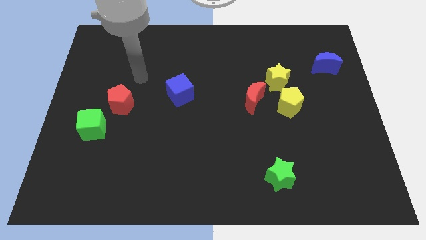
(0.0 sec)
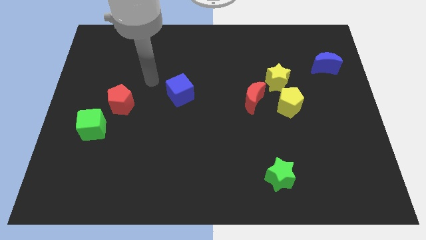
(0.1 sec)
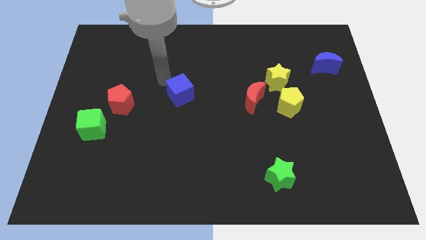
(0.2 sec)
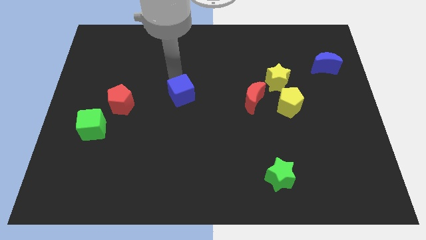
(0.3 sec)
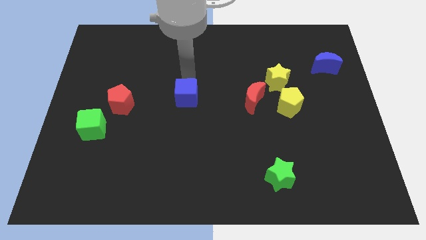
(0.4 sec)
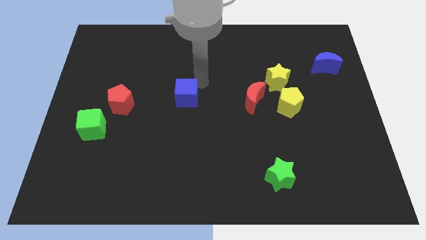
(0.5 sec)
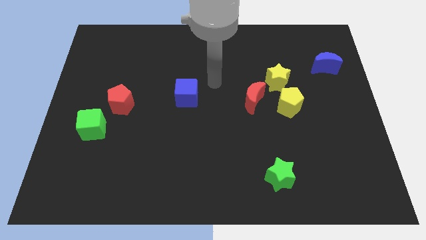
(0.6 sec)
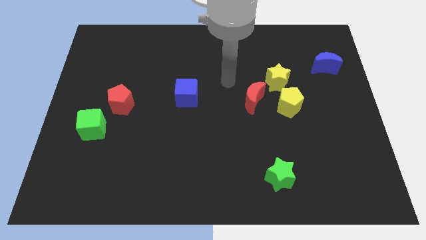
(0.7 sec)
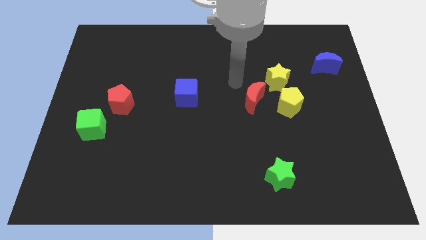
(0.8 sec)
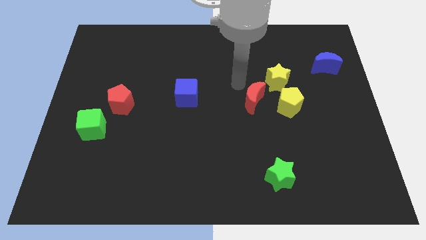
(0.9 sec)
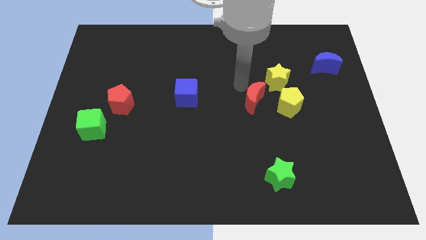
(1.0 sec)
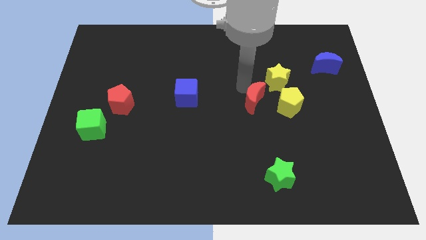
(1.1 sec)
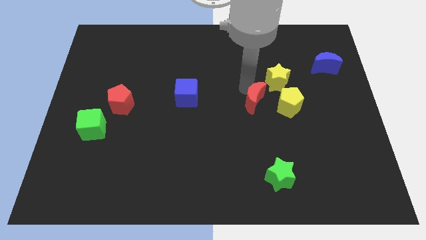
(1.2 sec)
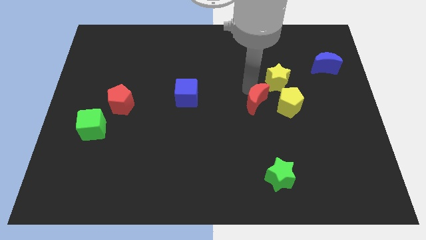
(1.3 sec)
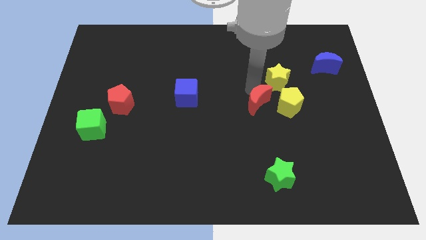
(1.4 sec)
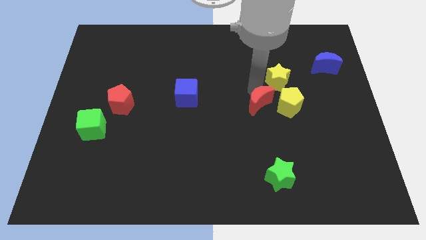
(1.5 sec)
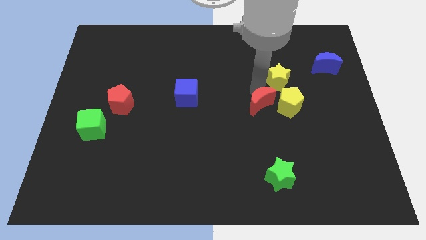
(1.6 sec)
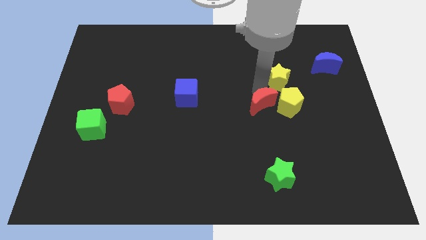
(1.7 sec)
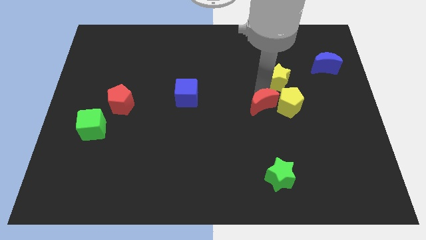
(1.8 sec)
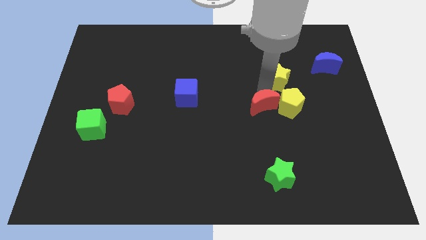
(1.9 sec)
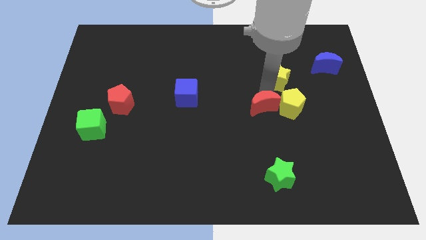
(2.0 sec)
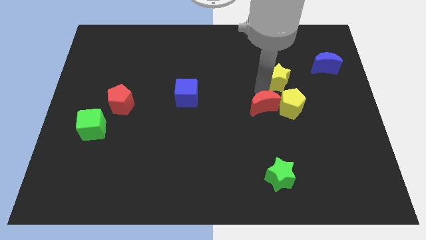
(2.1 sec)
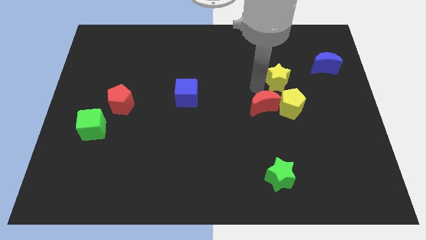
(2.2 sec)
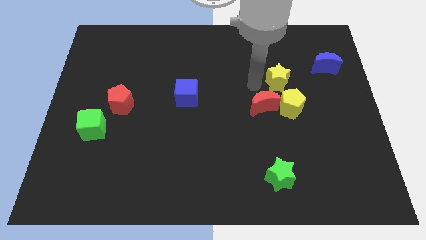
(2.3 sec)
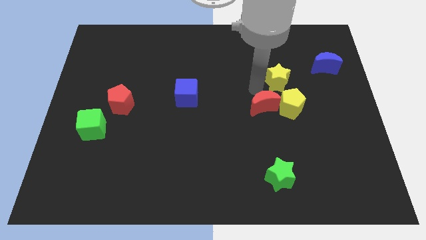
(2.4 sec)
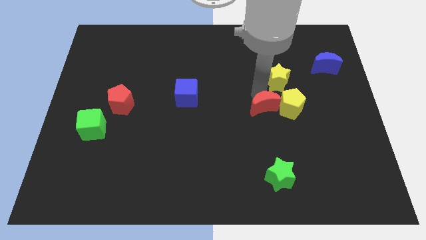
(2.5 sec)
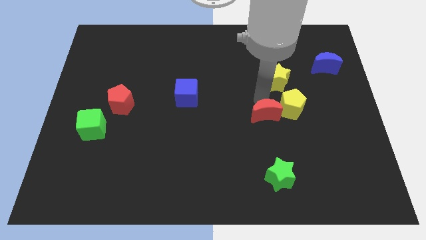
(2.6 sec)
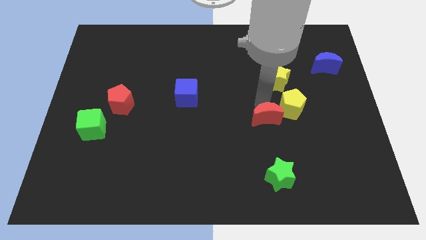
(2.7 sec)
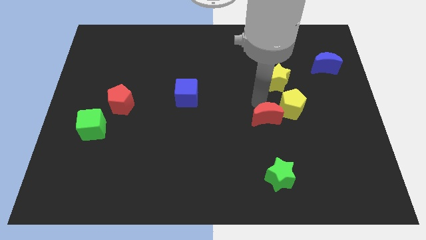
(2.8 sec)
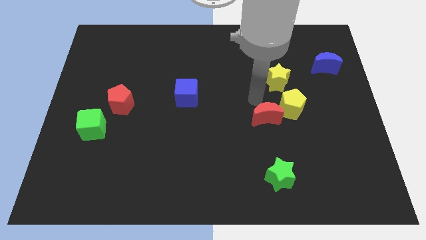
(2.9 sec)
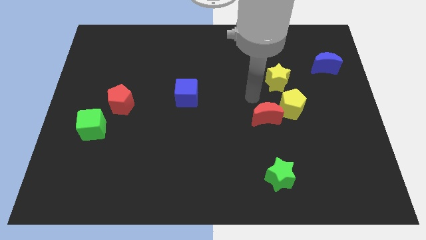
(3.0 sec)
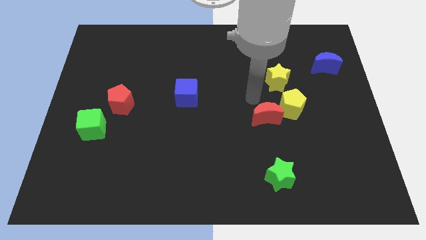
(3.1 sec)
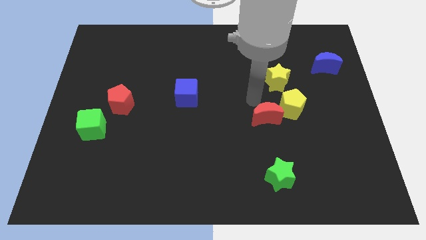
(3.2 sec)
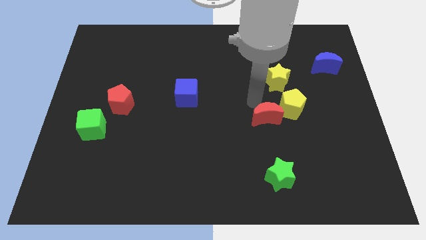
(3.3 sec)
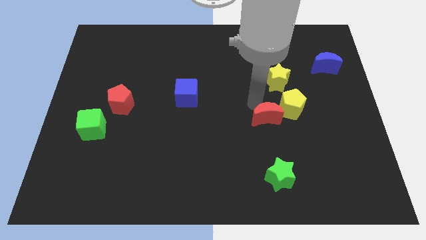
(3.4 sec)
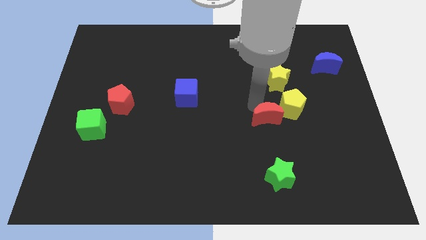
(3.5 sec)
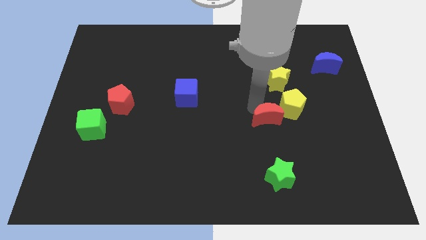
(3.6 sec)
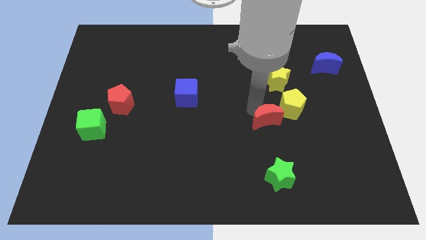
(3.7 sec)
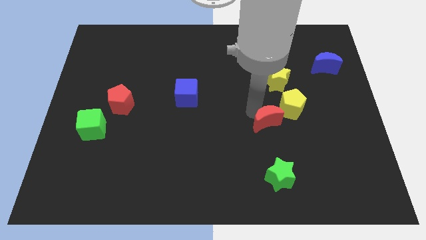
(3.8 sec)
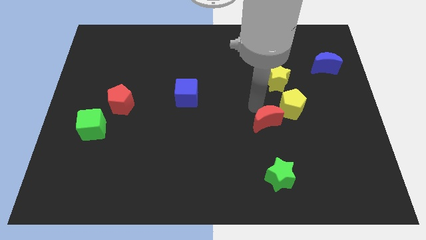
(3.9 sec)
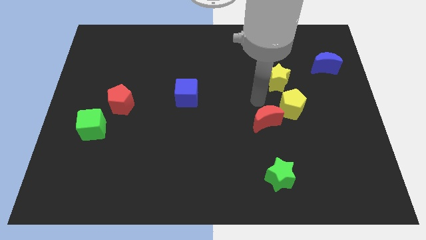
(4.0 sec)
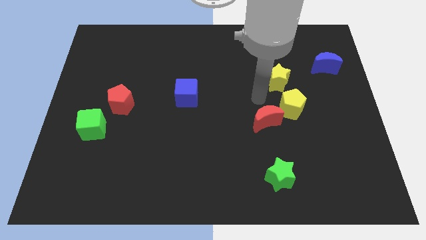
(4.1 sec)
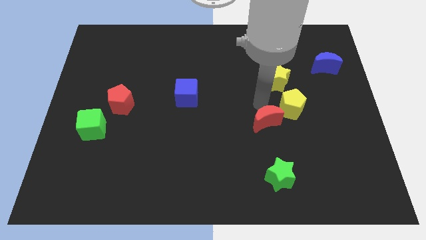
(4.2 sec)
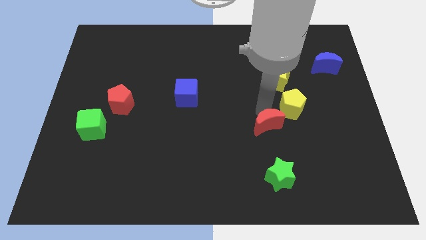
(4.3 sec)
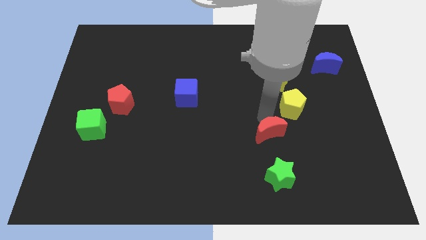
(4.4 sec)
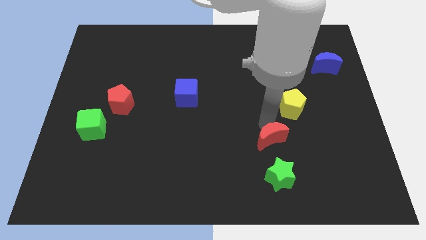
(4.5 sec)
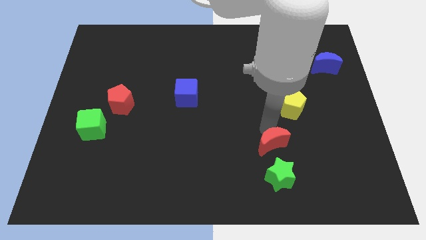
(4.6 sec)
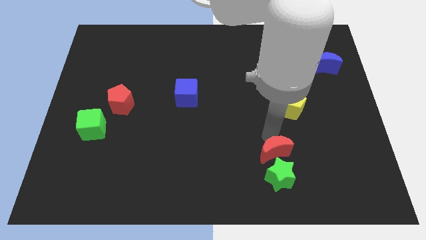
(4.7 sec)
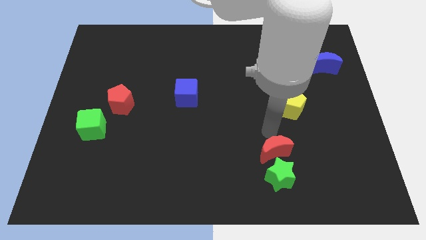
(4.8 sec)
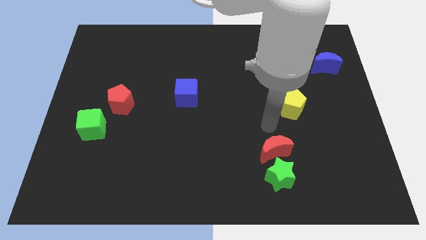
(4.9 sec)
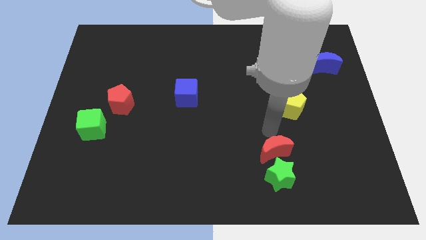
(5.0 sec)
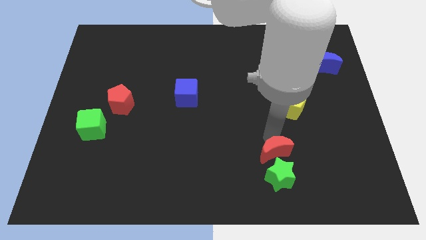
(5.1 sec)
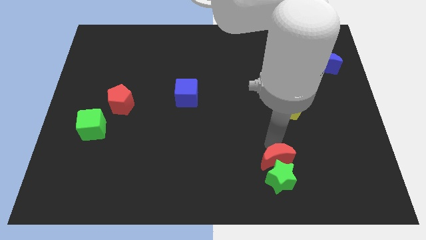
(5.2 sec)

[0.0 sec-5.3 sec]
slide the red moon to the green star

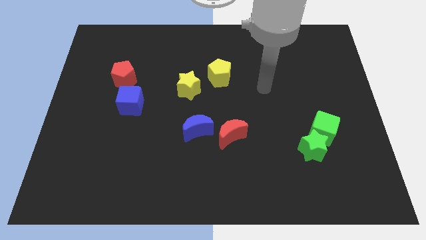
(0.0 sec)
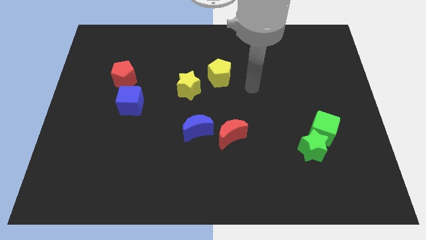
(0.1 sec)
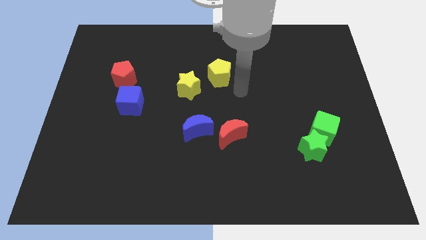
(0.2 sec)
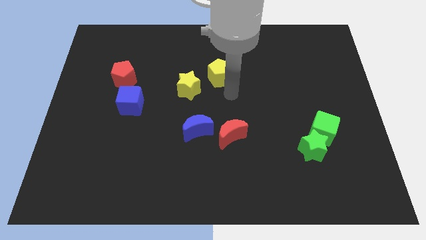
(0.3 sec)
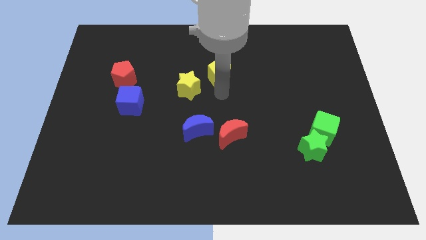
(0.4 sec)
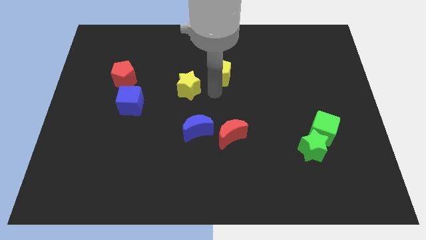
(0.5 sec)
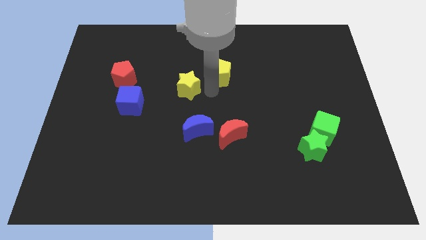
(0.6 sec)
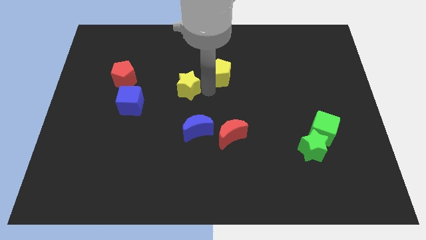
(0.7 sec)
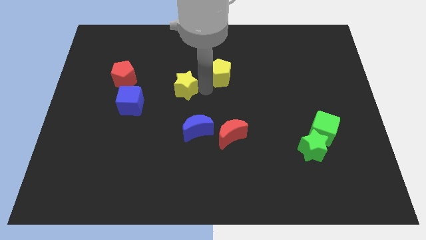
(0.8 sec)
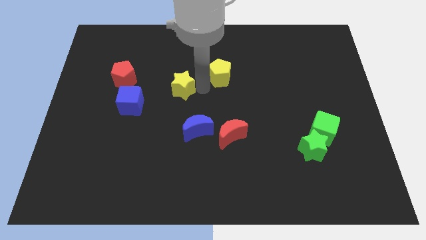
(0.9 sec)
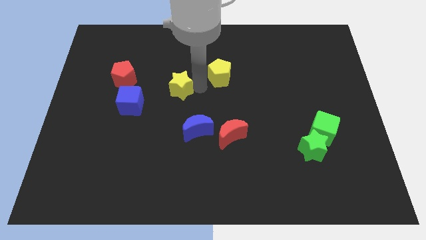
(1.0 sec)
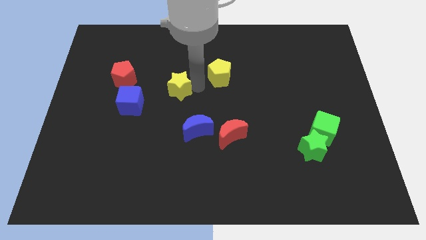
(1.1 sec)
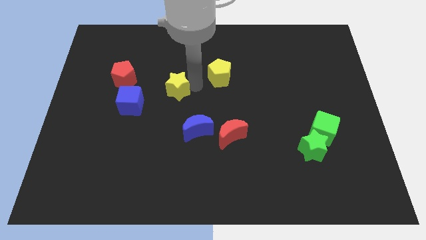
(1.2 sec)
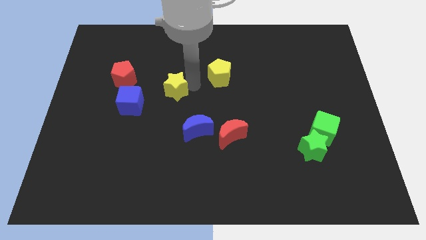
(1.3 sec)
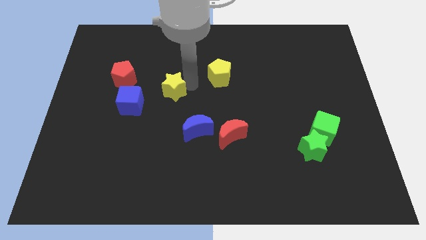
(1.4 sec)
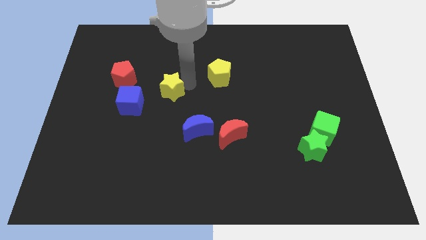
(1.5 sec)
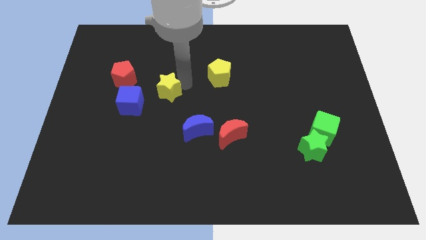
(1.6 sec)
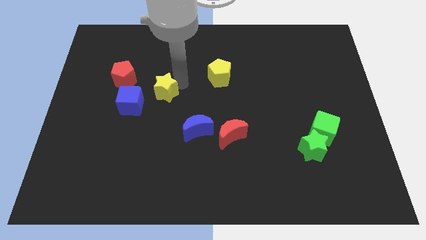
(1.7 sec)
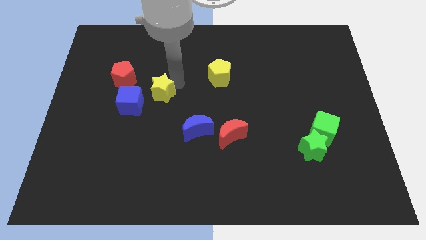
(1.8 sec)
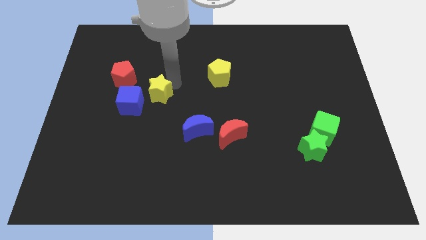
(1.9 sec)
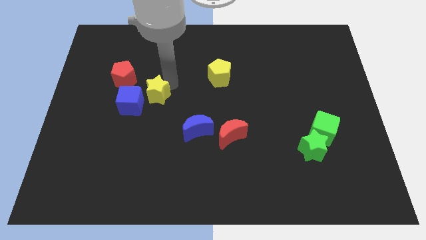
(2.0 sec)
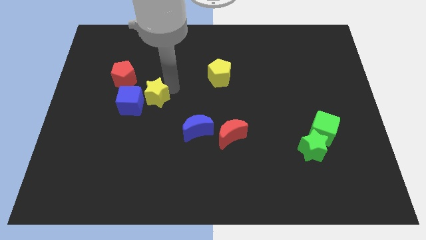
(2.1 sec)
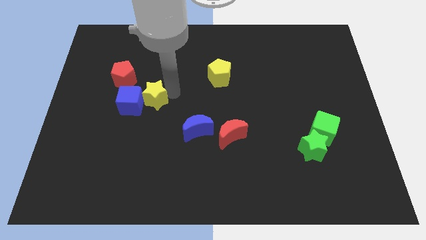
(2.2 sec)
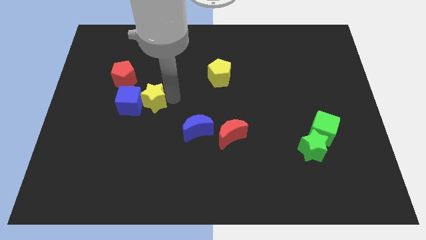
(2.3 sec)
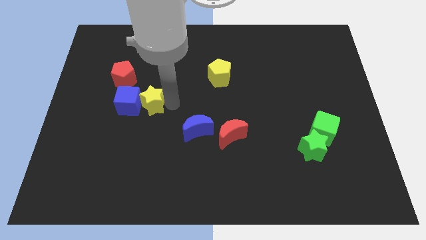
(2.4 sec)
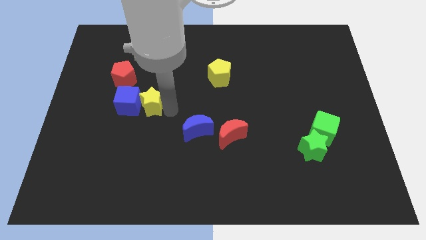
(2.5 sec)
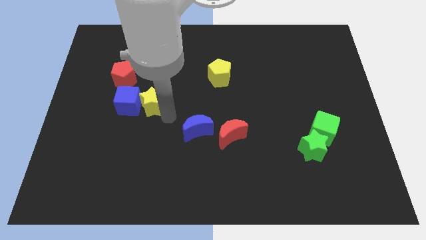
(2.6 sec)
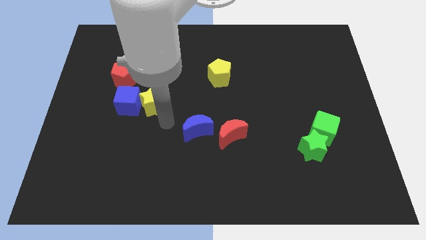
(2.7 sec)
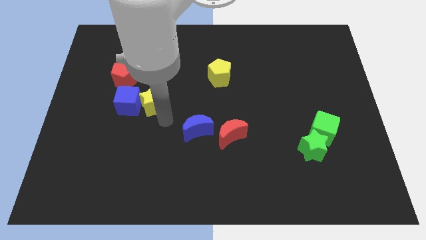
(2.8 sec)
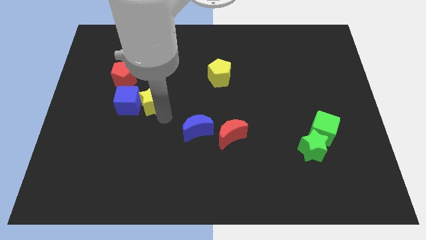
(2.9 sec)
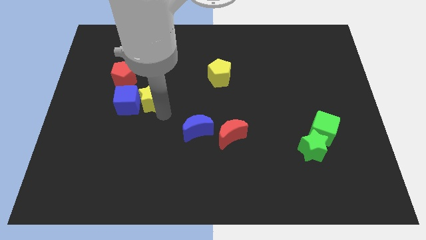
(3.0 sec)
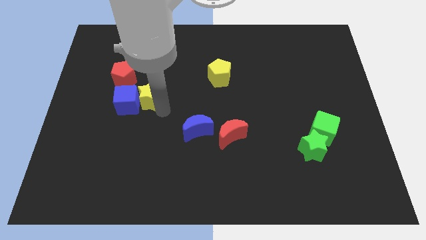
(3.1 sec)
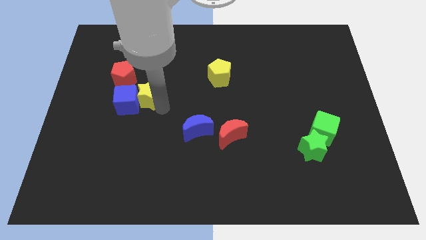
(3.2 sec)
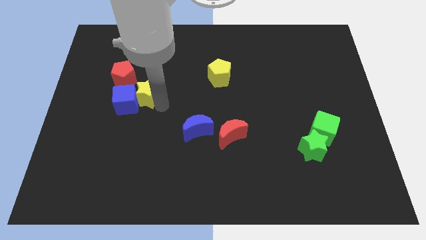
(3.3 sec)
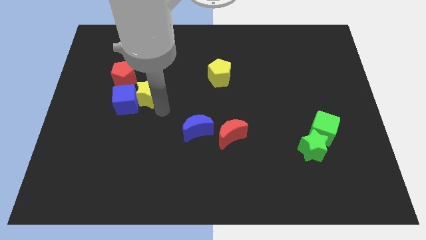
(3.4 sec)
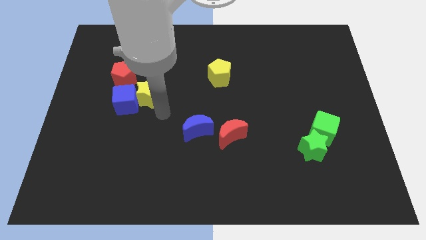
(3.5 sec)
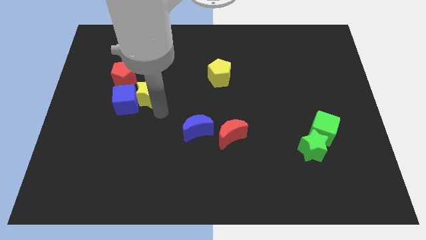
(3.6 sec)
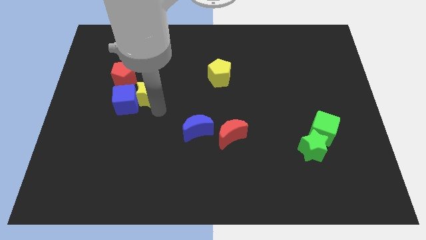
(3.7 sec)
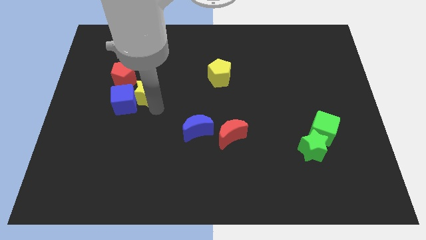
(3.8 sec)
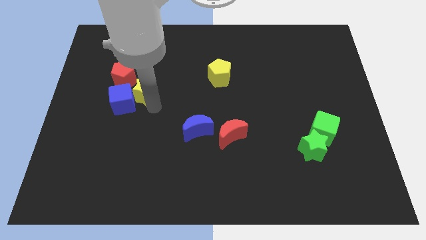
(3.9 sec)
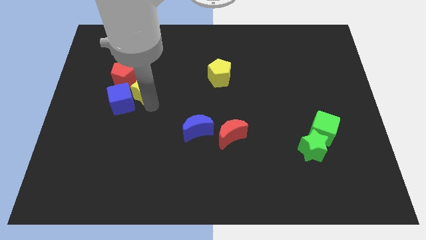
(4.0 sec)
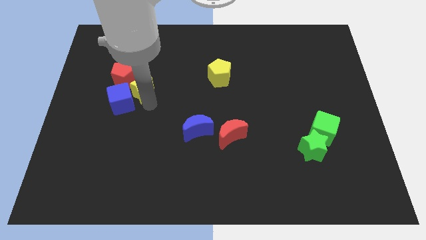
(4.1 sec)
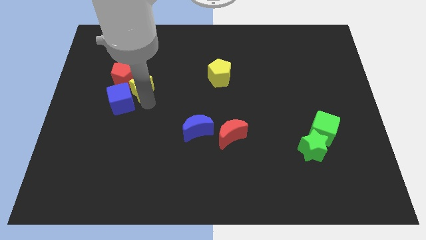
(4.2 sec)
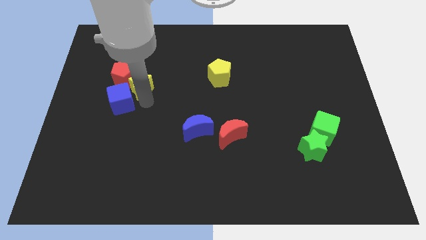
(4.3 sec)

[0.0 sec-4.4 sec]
move the yellow star close to the red pentagon
